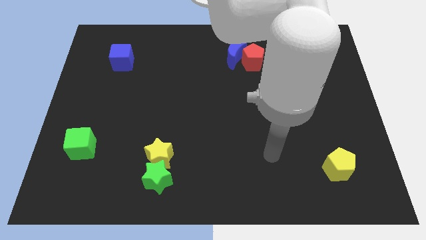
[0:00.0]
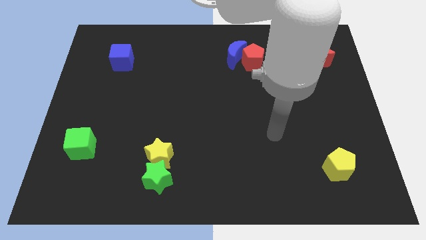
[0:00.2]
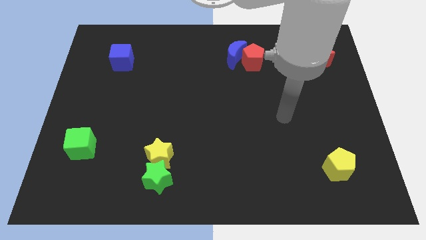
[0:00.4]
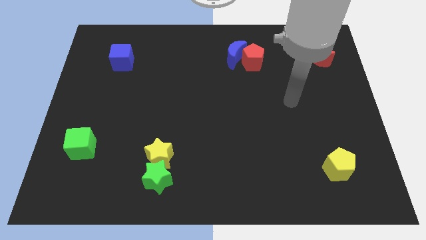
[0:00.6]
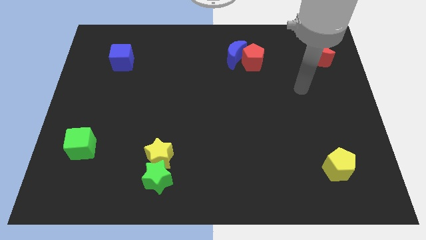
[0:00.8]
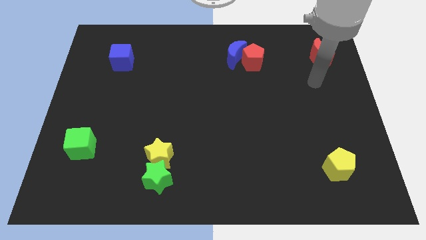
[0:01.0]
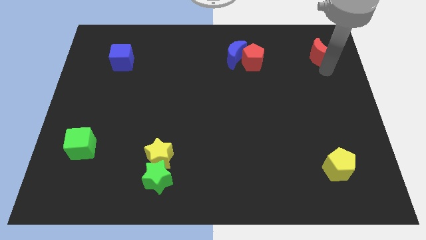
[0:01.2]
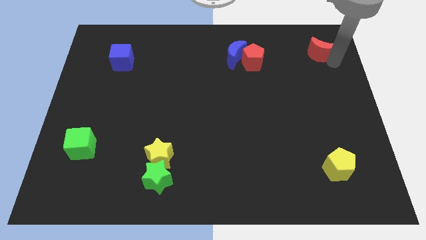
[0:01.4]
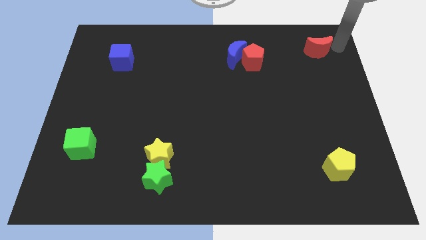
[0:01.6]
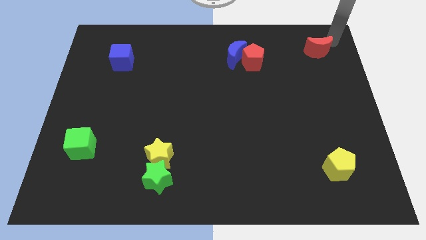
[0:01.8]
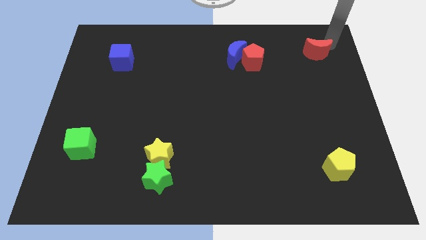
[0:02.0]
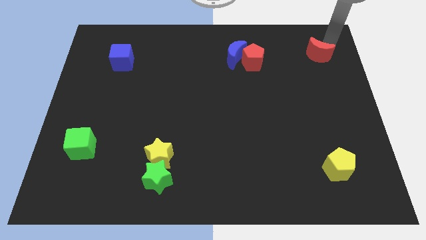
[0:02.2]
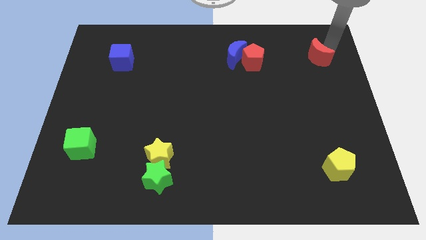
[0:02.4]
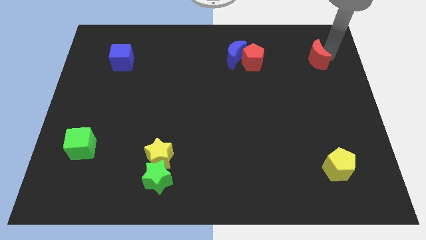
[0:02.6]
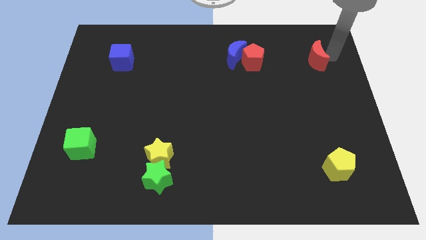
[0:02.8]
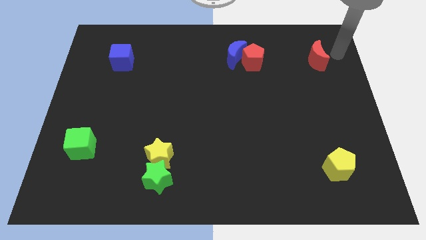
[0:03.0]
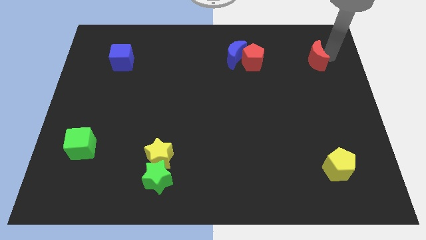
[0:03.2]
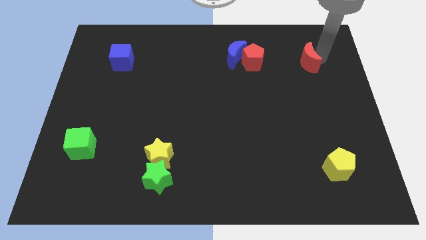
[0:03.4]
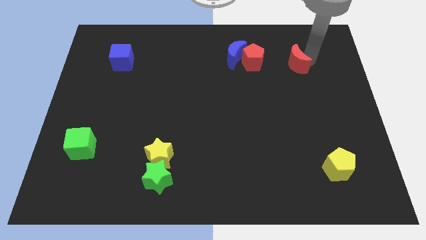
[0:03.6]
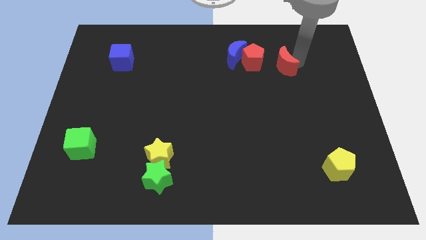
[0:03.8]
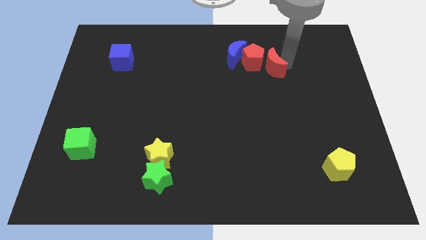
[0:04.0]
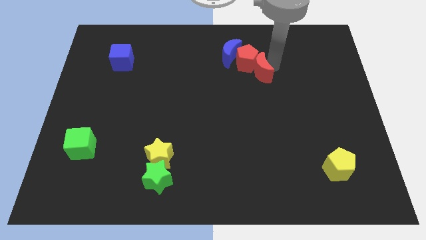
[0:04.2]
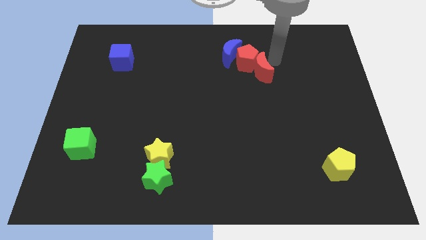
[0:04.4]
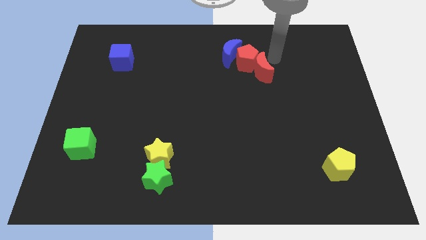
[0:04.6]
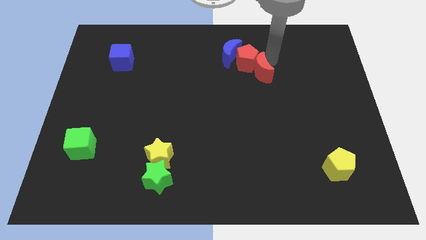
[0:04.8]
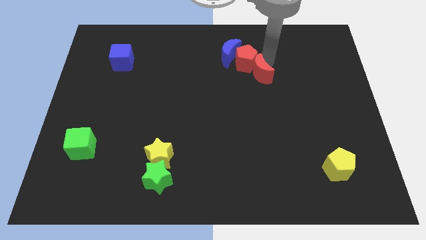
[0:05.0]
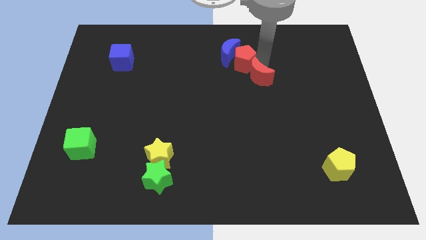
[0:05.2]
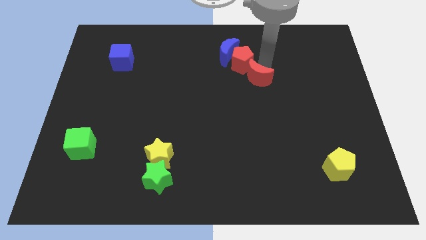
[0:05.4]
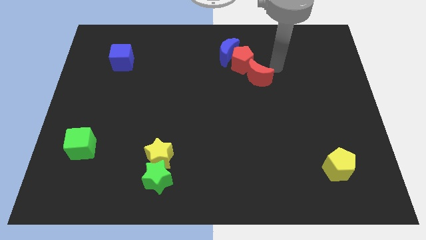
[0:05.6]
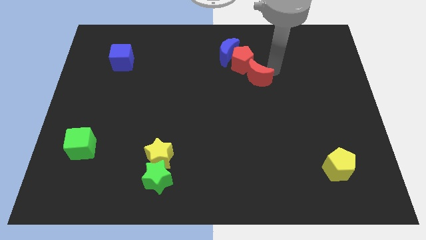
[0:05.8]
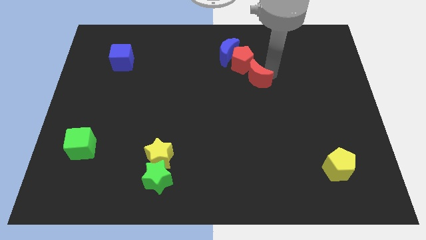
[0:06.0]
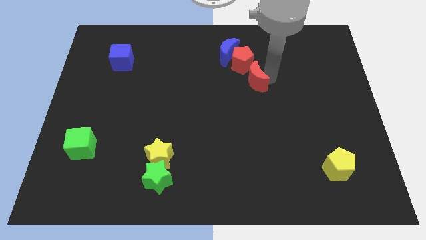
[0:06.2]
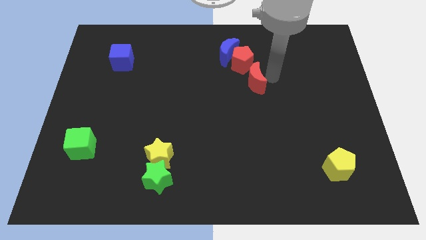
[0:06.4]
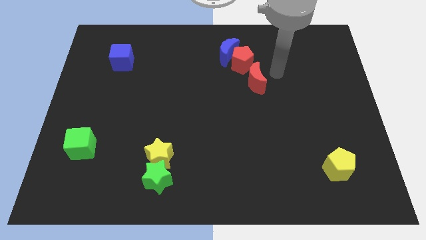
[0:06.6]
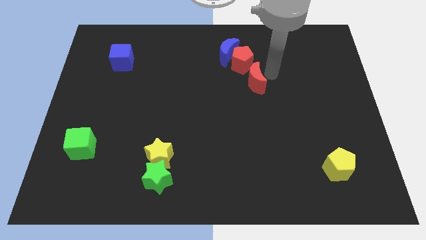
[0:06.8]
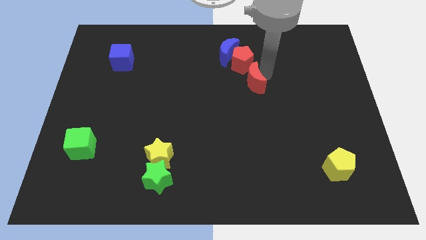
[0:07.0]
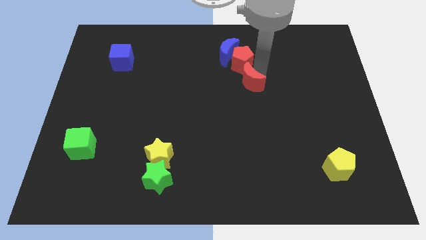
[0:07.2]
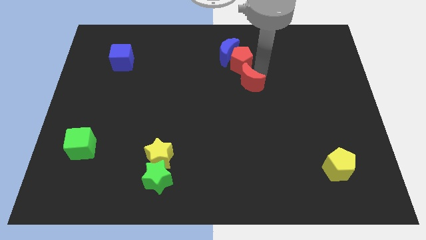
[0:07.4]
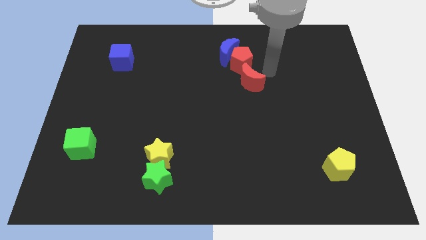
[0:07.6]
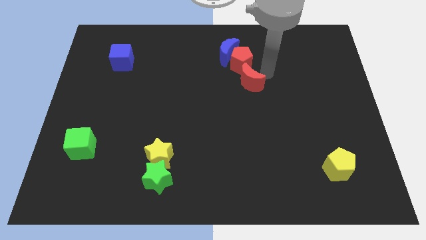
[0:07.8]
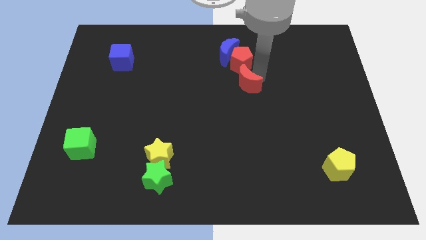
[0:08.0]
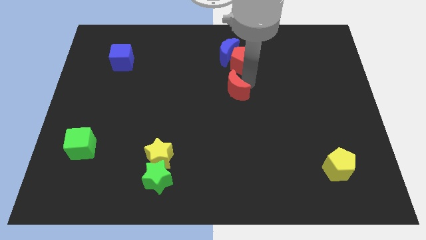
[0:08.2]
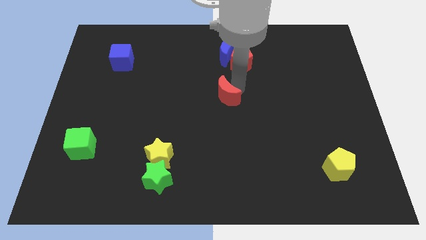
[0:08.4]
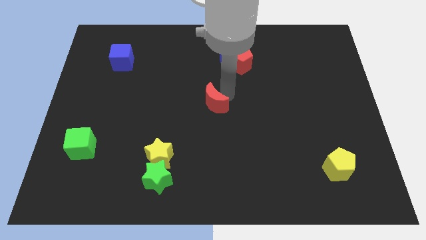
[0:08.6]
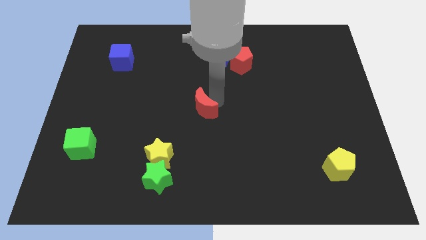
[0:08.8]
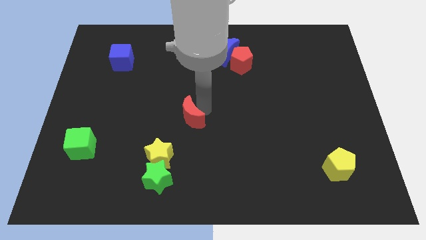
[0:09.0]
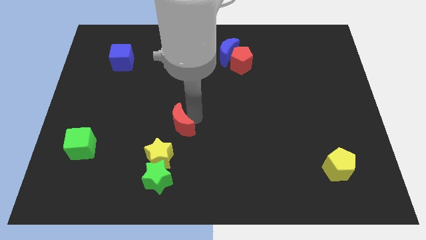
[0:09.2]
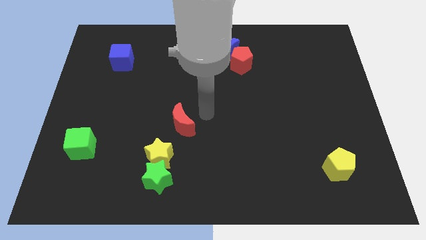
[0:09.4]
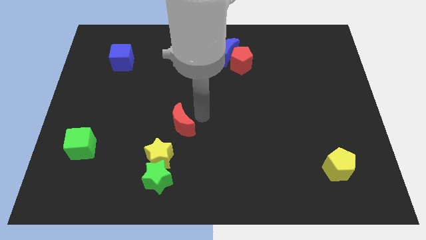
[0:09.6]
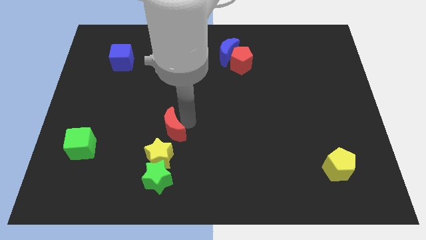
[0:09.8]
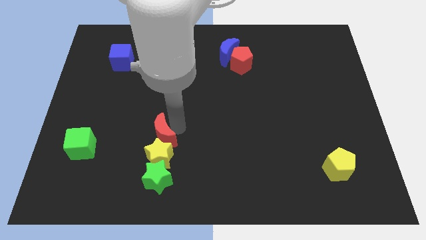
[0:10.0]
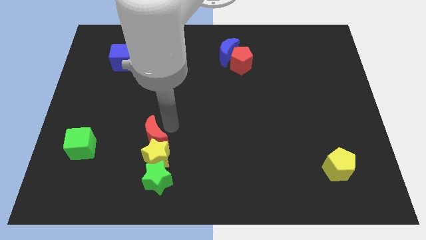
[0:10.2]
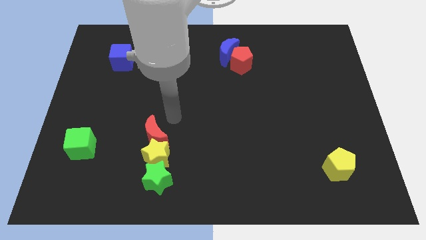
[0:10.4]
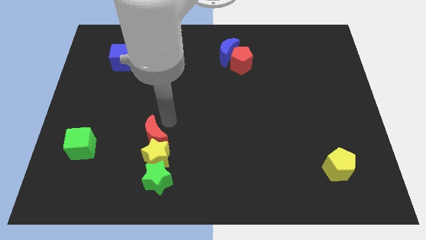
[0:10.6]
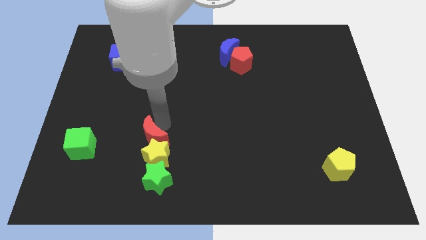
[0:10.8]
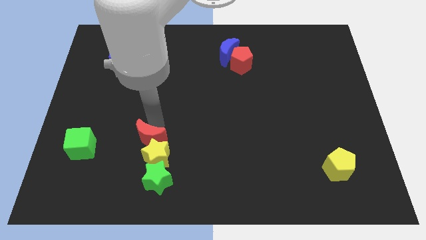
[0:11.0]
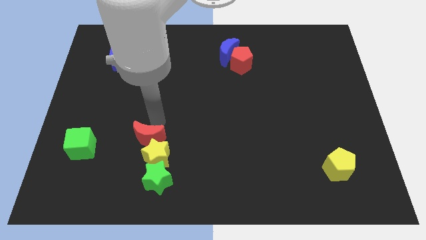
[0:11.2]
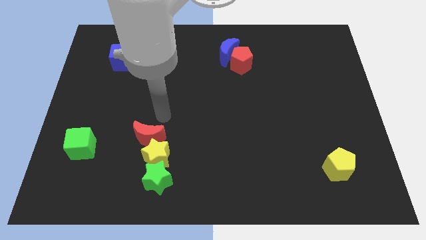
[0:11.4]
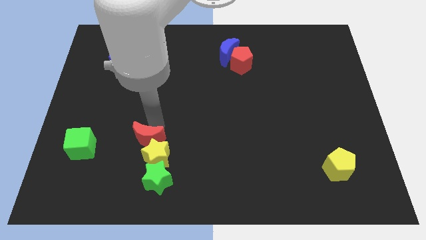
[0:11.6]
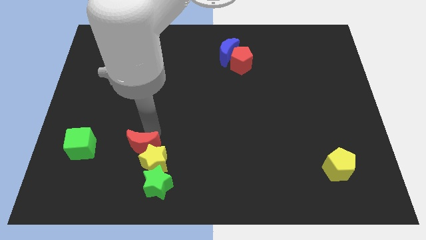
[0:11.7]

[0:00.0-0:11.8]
move the red moon diagonally up and to the left of the green star

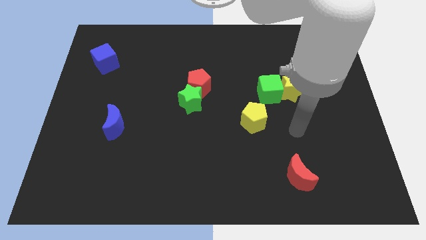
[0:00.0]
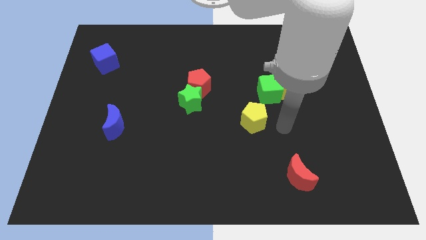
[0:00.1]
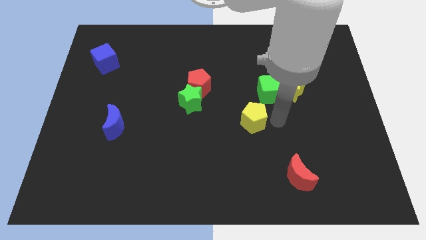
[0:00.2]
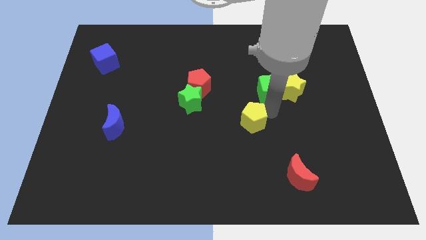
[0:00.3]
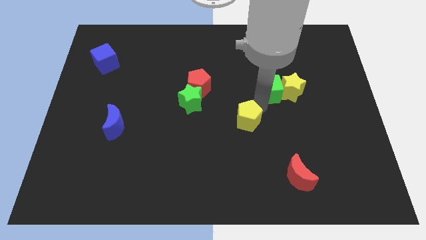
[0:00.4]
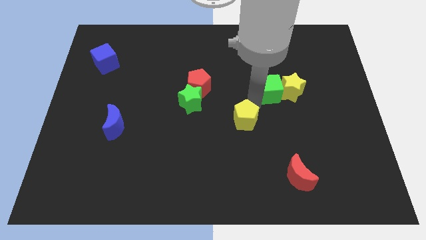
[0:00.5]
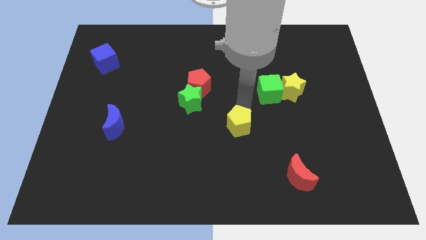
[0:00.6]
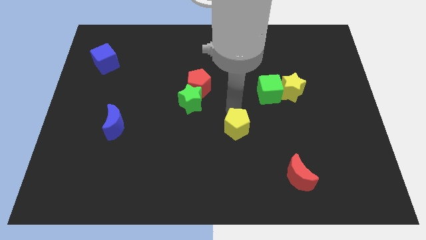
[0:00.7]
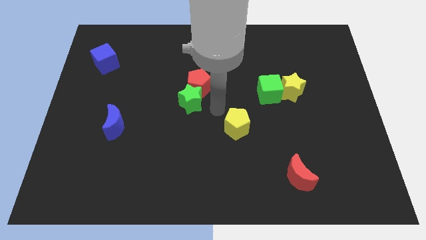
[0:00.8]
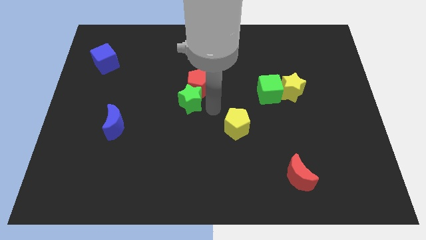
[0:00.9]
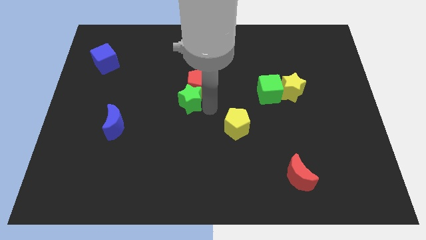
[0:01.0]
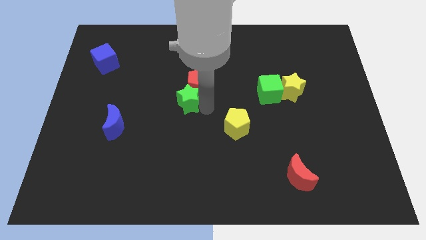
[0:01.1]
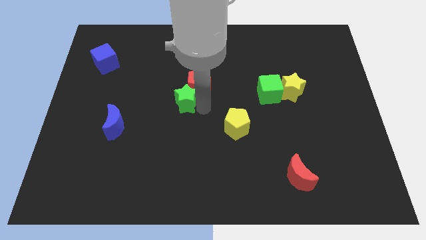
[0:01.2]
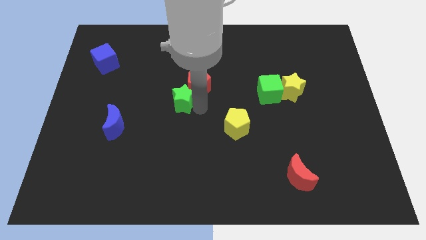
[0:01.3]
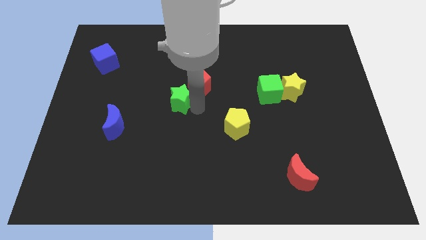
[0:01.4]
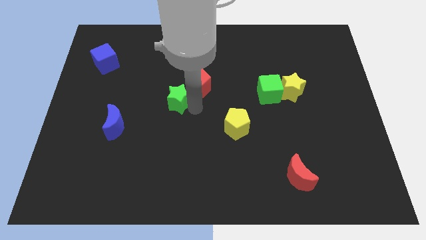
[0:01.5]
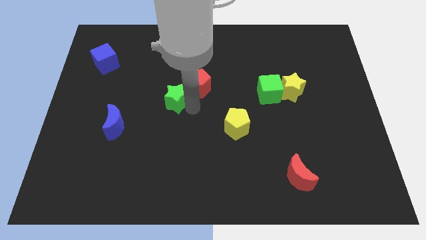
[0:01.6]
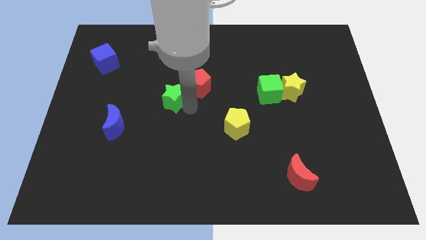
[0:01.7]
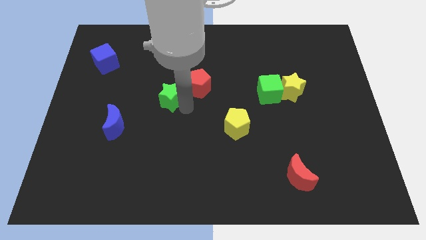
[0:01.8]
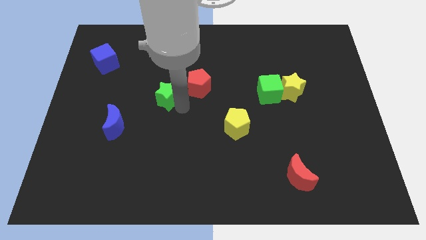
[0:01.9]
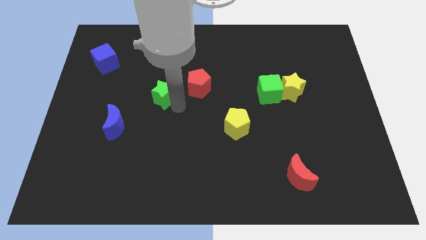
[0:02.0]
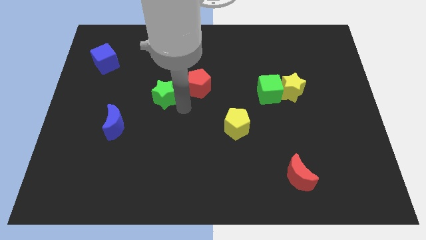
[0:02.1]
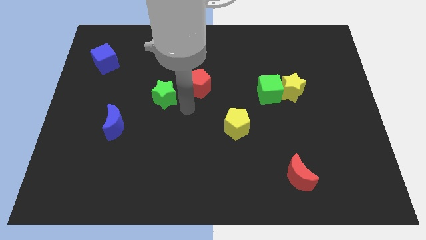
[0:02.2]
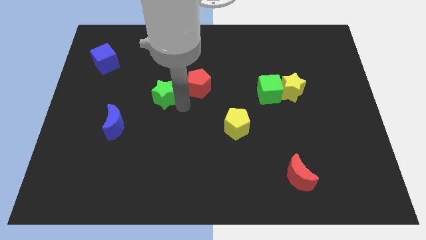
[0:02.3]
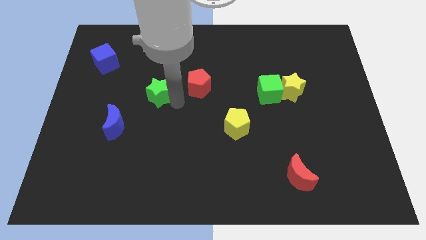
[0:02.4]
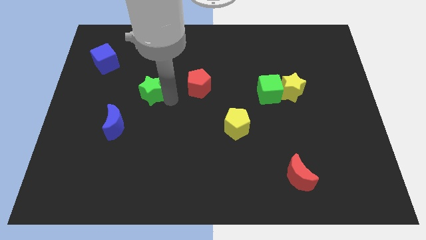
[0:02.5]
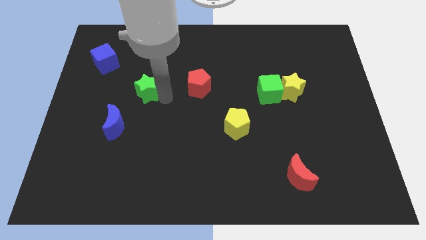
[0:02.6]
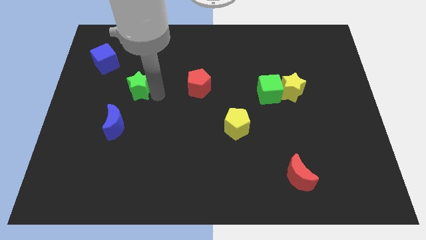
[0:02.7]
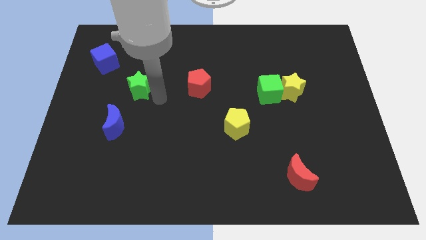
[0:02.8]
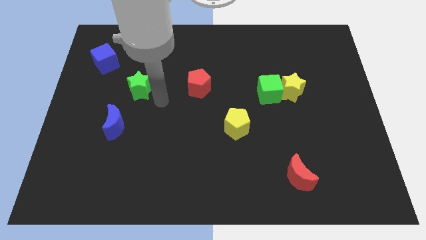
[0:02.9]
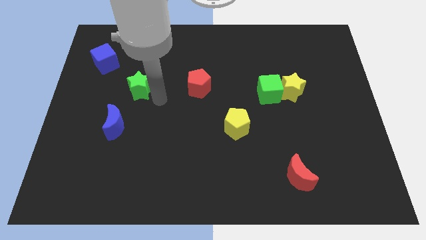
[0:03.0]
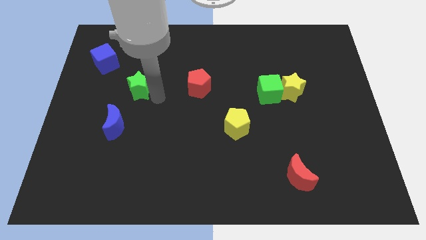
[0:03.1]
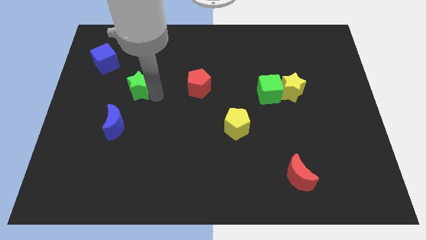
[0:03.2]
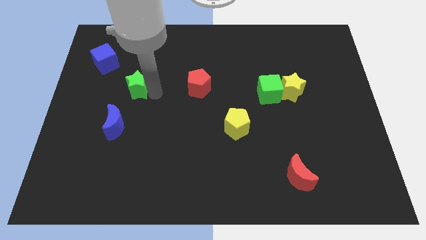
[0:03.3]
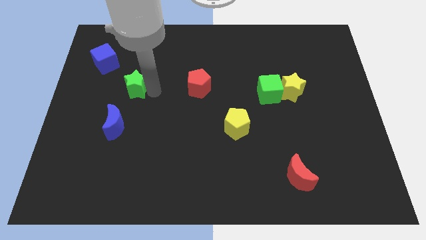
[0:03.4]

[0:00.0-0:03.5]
slide the green star diagonally down and to the right of the blue cube
